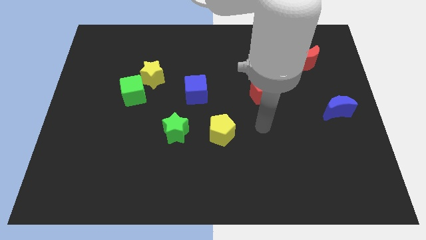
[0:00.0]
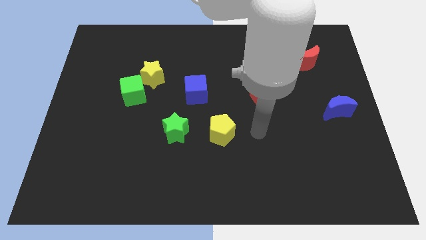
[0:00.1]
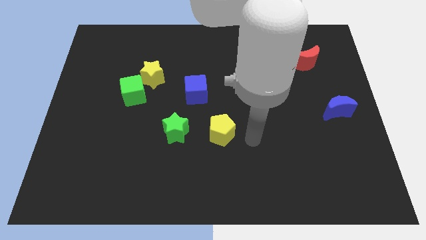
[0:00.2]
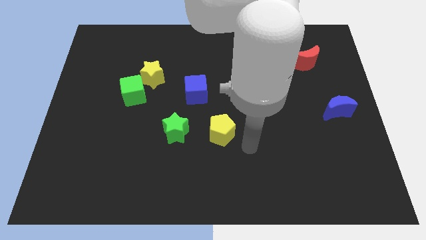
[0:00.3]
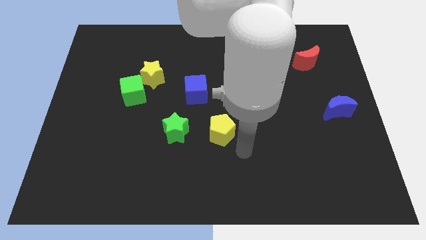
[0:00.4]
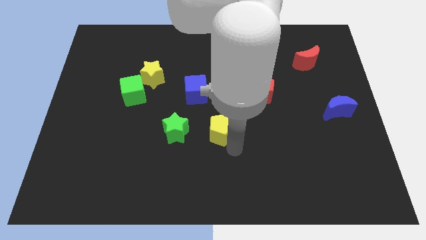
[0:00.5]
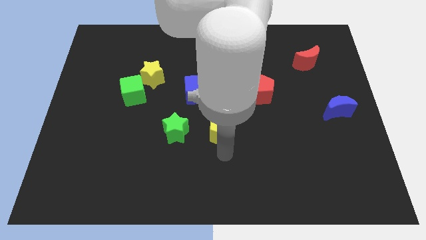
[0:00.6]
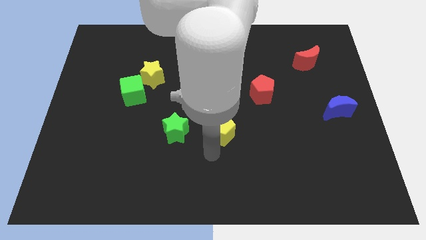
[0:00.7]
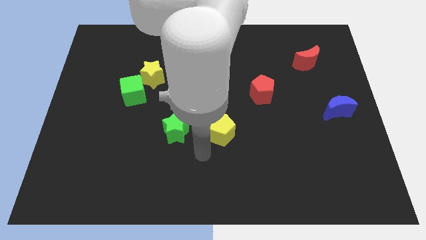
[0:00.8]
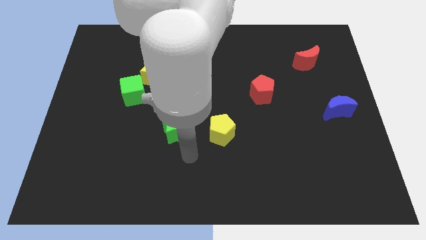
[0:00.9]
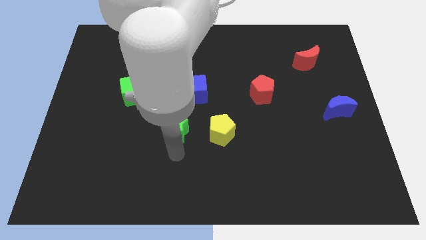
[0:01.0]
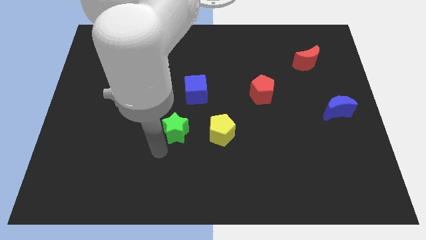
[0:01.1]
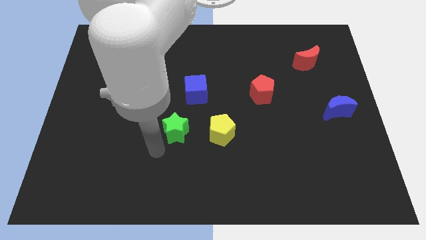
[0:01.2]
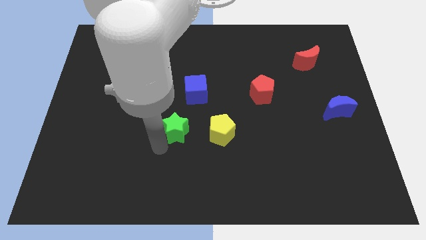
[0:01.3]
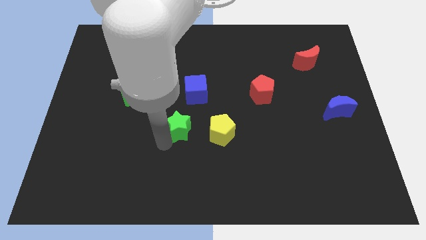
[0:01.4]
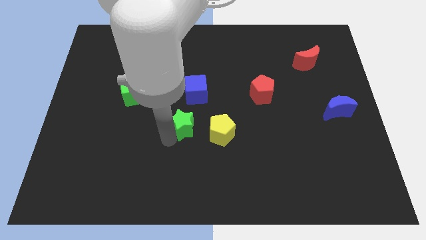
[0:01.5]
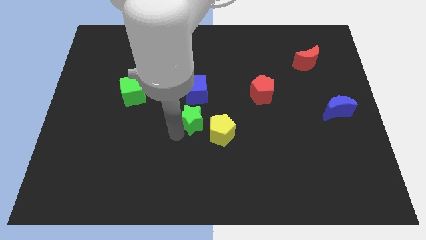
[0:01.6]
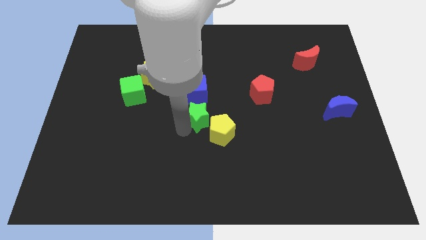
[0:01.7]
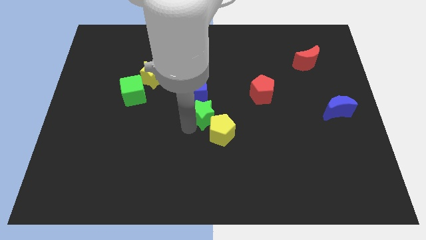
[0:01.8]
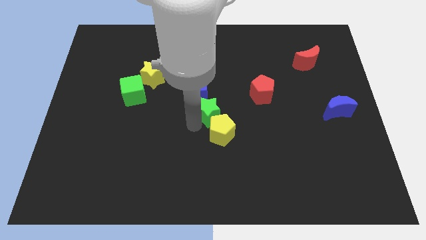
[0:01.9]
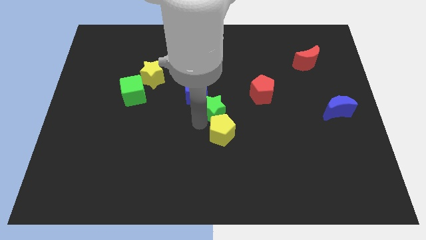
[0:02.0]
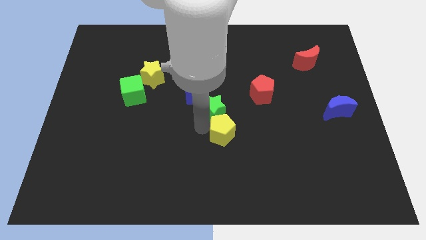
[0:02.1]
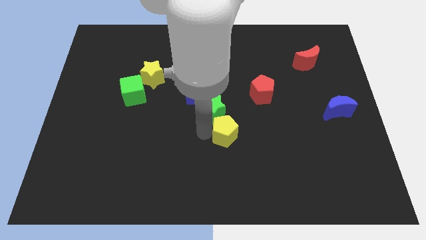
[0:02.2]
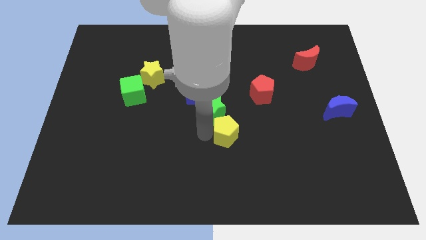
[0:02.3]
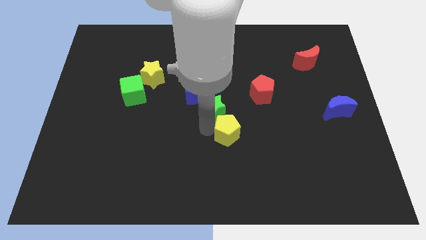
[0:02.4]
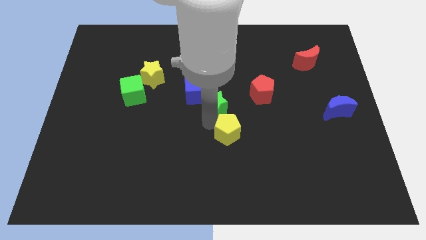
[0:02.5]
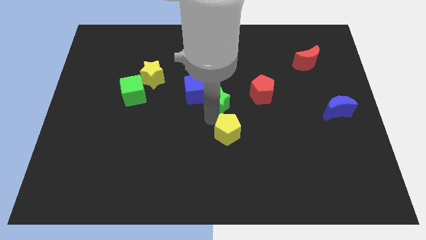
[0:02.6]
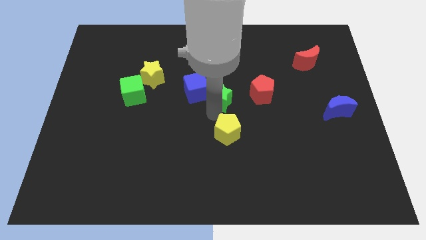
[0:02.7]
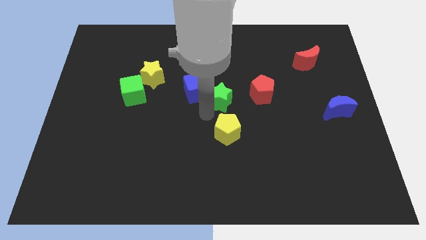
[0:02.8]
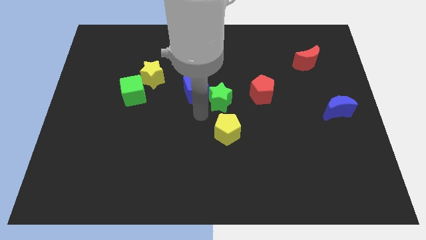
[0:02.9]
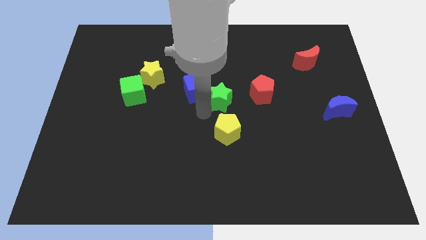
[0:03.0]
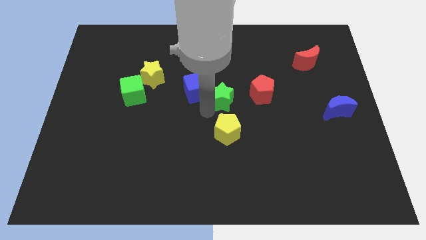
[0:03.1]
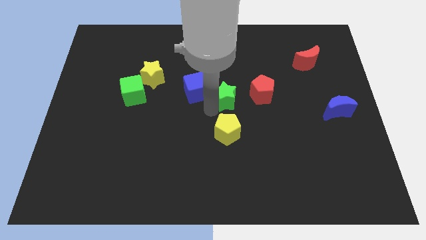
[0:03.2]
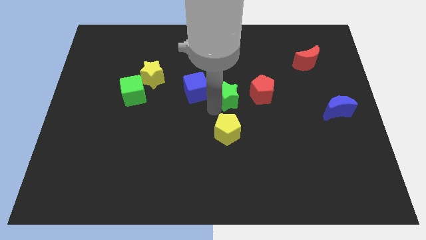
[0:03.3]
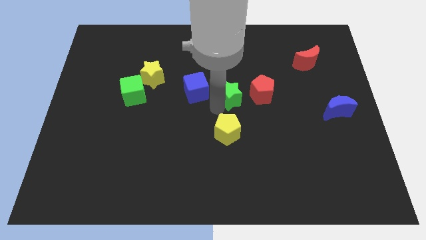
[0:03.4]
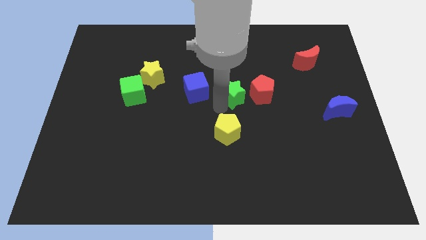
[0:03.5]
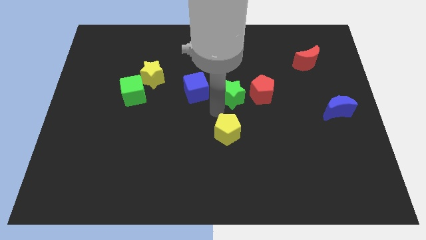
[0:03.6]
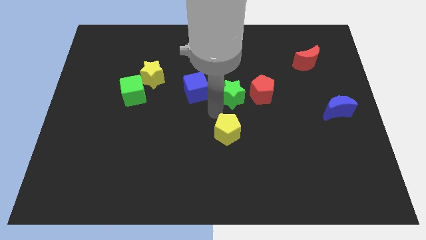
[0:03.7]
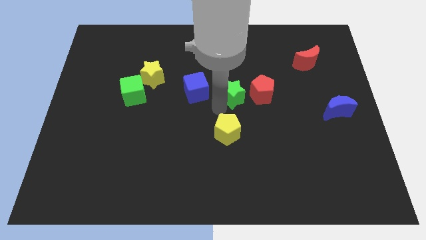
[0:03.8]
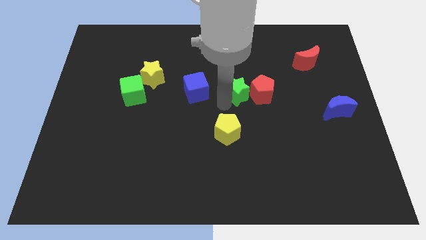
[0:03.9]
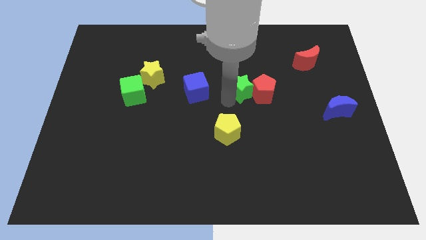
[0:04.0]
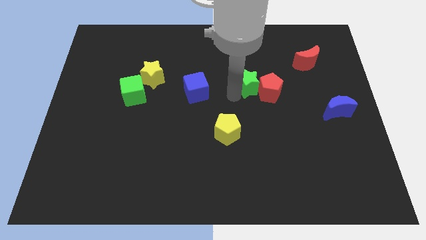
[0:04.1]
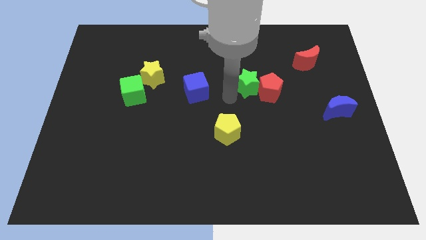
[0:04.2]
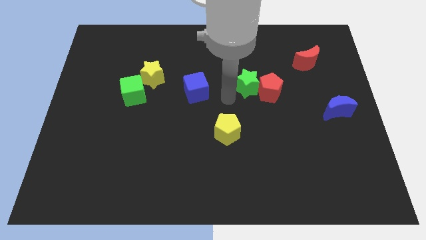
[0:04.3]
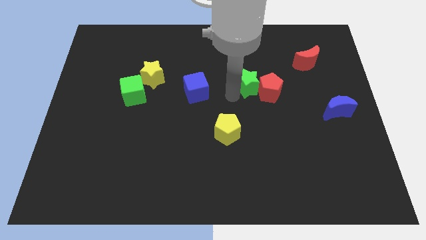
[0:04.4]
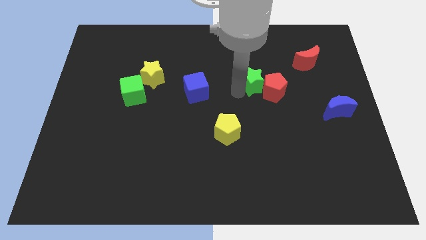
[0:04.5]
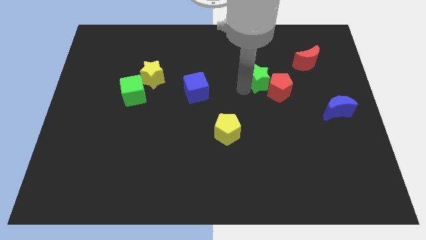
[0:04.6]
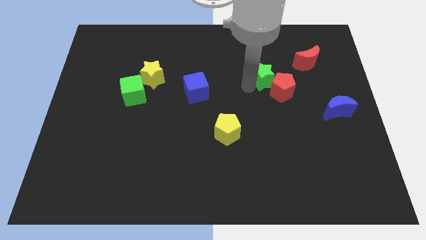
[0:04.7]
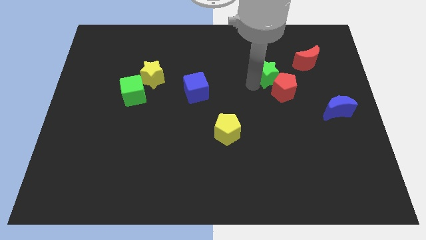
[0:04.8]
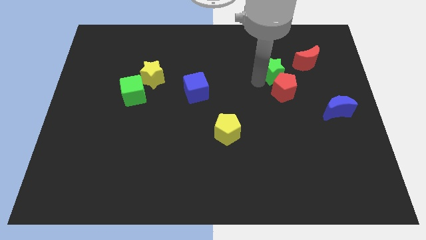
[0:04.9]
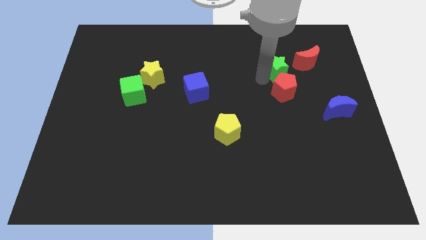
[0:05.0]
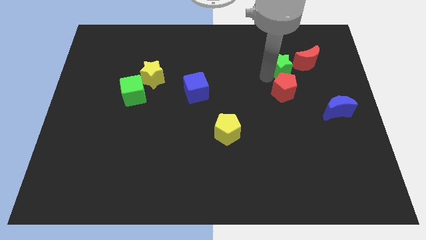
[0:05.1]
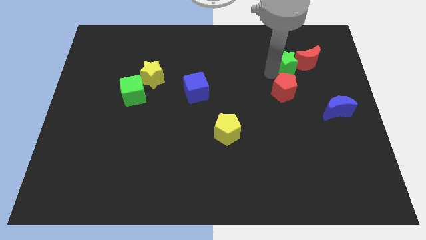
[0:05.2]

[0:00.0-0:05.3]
move the green star next to the red moon

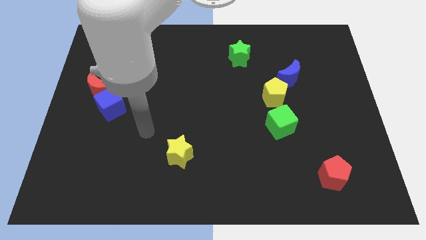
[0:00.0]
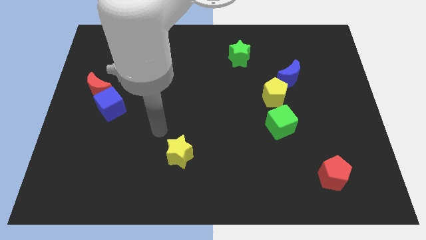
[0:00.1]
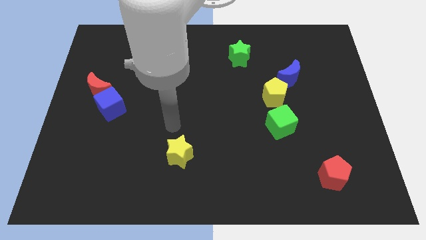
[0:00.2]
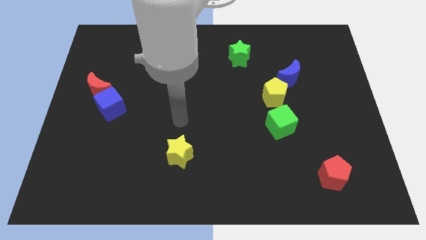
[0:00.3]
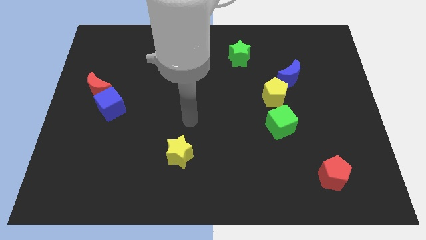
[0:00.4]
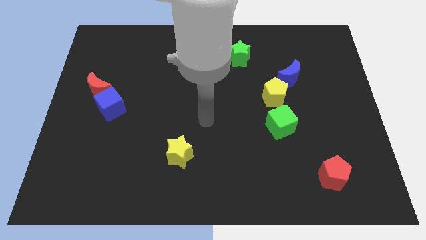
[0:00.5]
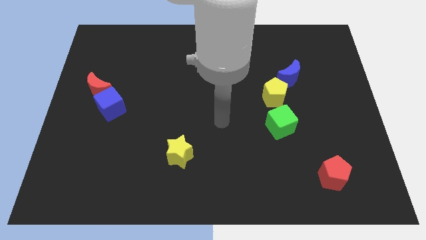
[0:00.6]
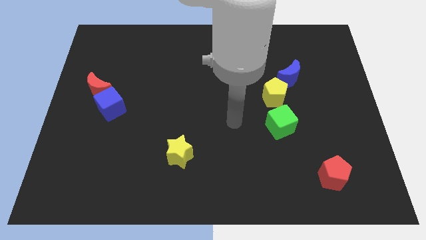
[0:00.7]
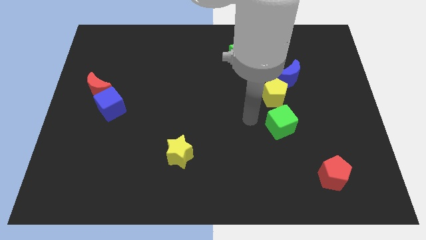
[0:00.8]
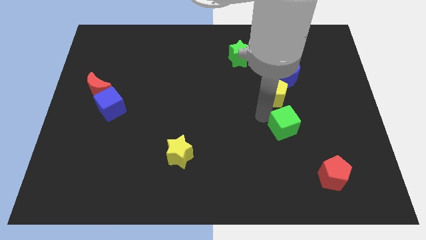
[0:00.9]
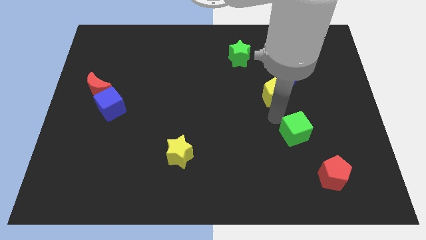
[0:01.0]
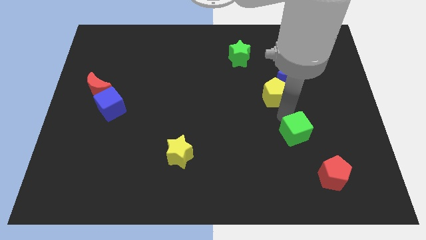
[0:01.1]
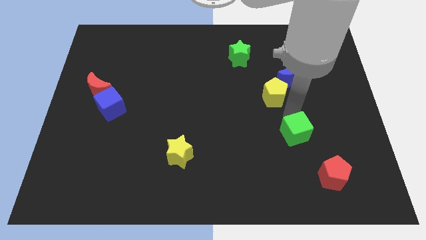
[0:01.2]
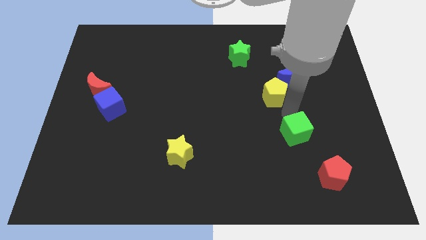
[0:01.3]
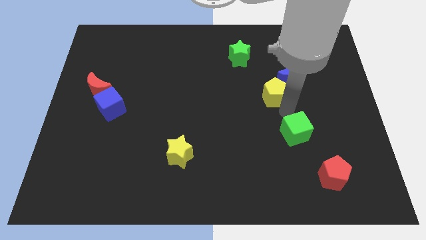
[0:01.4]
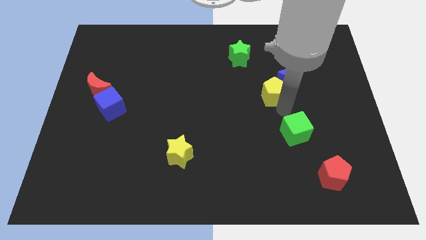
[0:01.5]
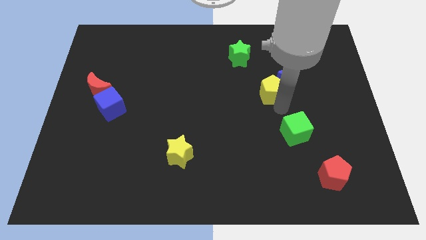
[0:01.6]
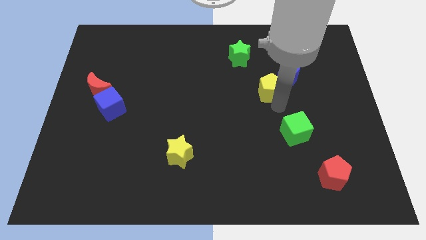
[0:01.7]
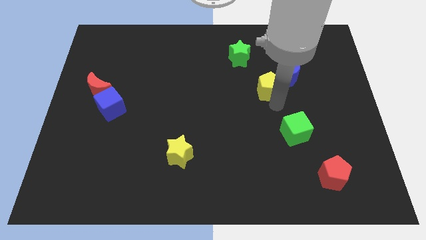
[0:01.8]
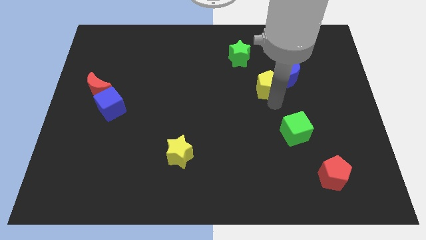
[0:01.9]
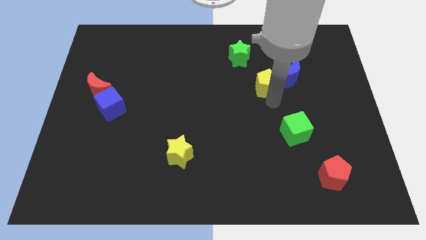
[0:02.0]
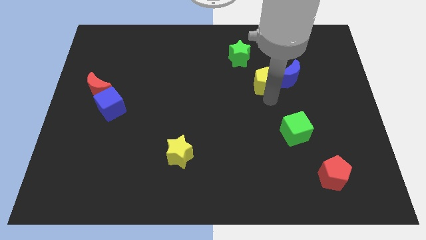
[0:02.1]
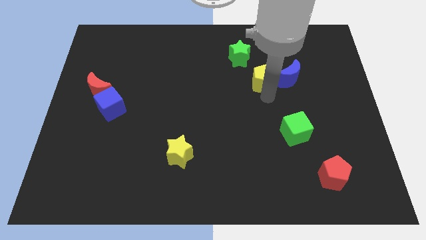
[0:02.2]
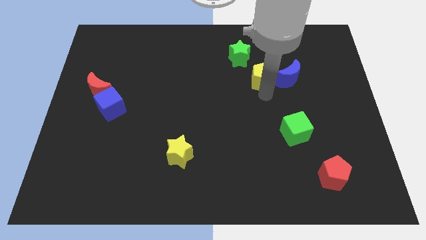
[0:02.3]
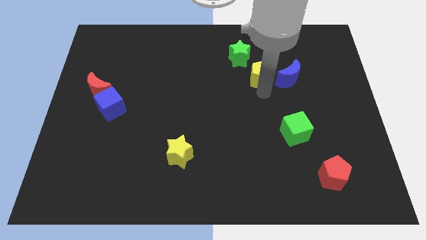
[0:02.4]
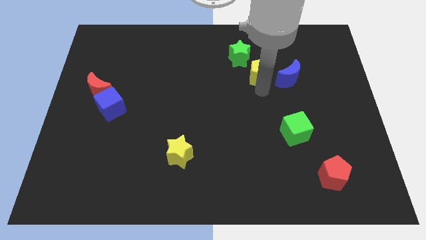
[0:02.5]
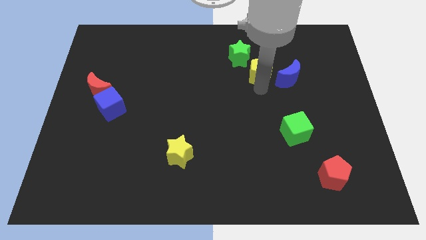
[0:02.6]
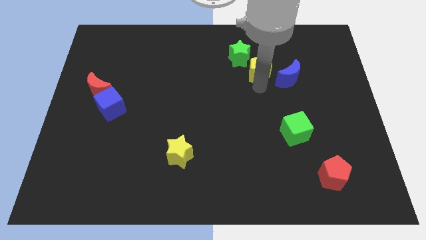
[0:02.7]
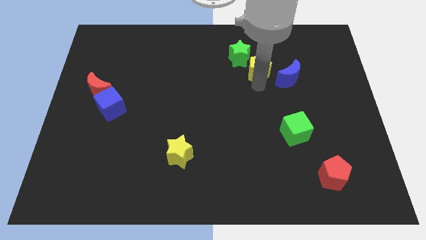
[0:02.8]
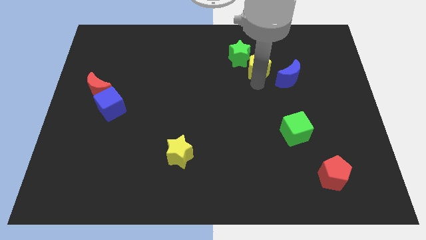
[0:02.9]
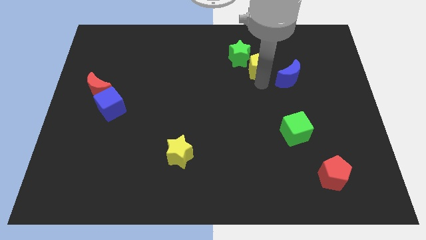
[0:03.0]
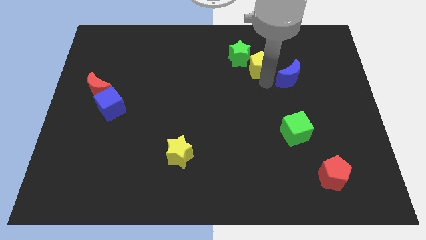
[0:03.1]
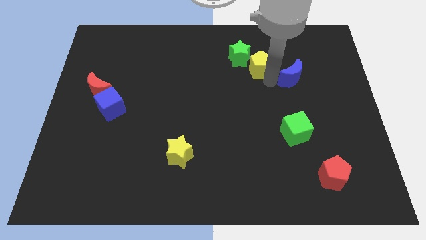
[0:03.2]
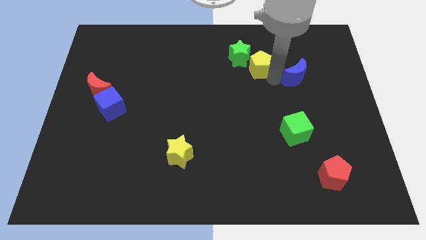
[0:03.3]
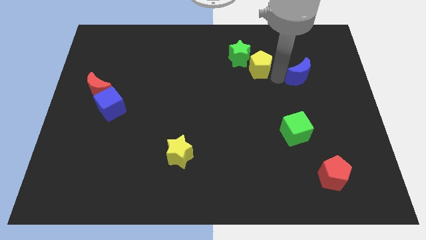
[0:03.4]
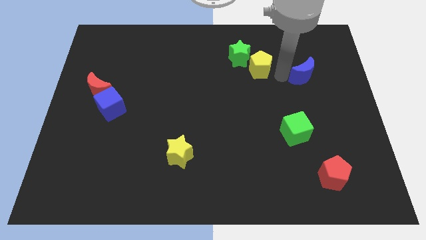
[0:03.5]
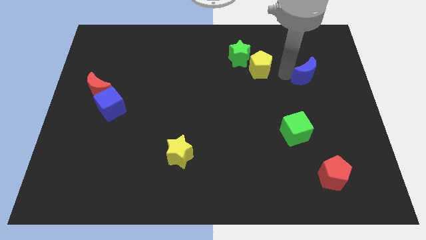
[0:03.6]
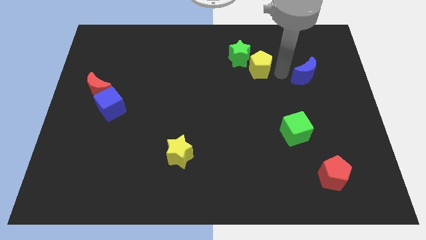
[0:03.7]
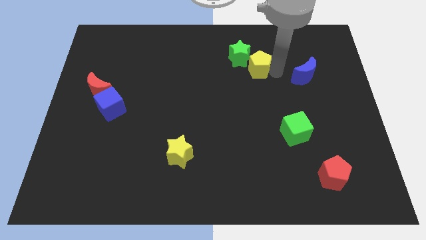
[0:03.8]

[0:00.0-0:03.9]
push the yellow pentagon close to the green star
